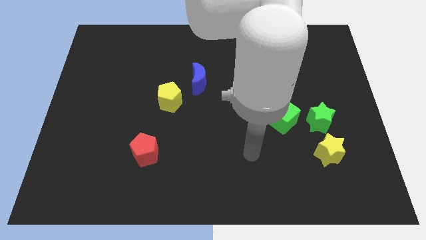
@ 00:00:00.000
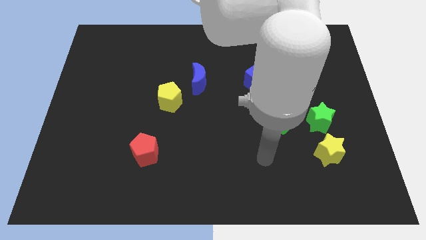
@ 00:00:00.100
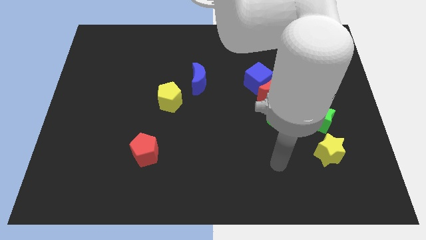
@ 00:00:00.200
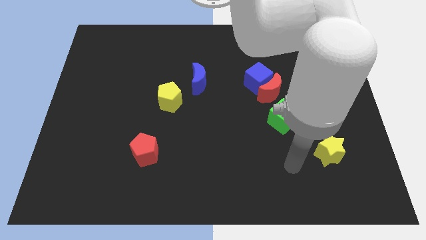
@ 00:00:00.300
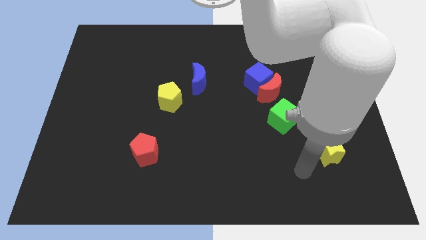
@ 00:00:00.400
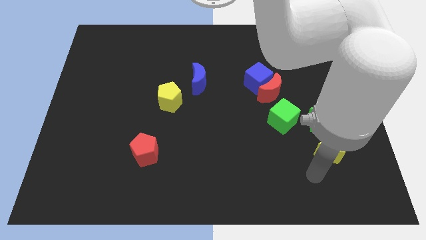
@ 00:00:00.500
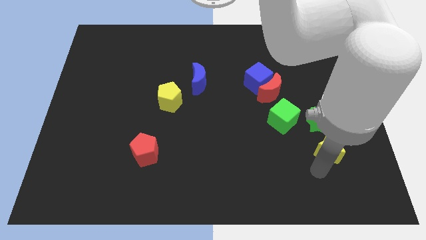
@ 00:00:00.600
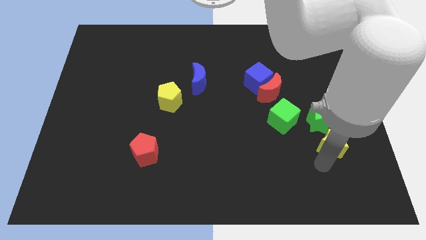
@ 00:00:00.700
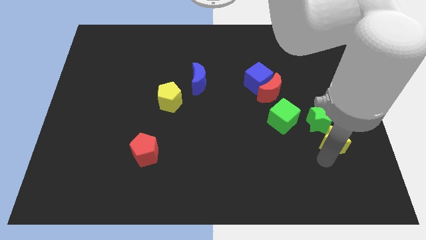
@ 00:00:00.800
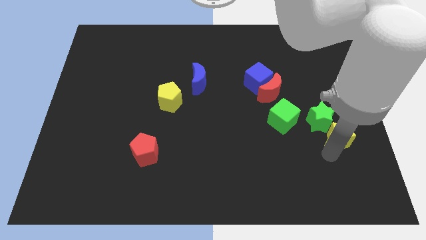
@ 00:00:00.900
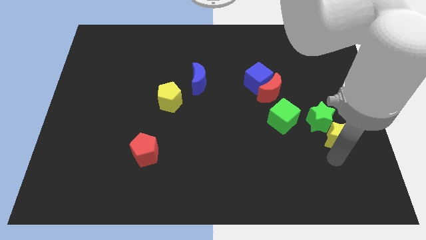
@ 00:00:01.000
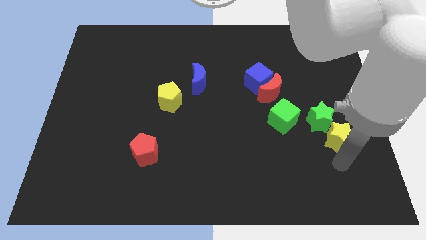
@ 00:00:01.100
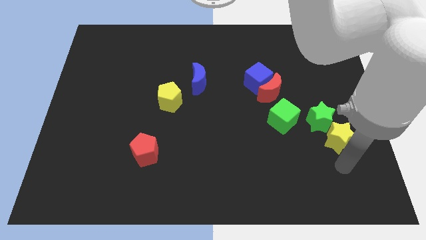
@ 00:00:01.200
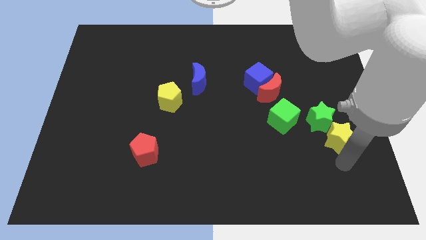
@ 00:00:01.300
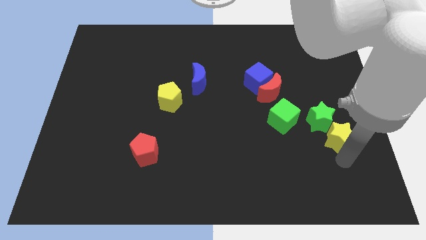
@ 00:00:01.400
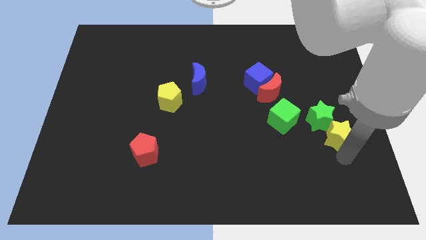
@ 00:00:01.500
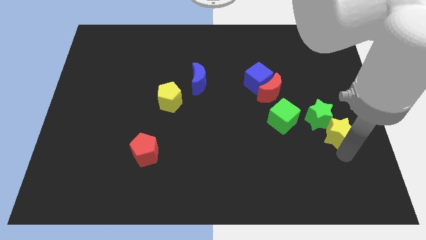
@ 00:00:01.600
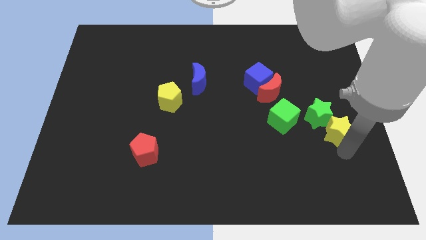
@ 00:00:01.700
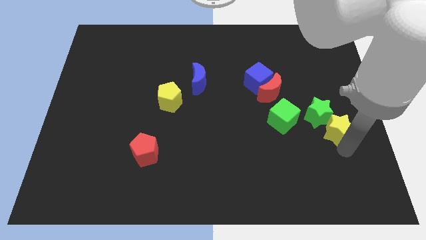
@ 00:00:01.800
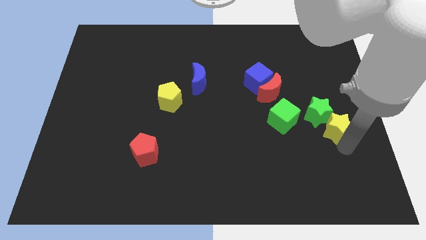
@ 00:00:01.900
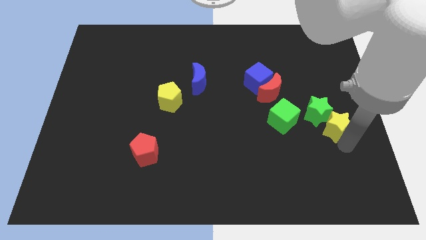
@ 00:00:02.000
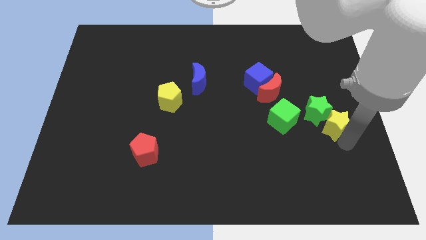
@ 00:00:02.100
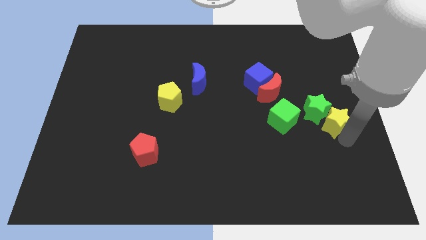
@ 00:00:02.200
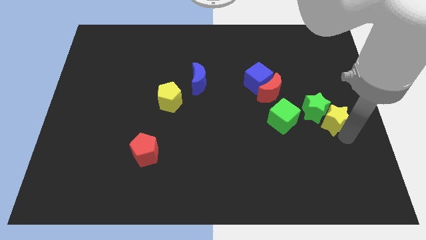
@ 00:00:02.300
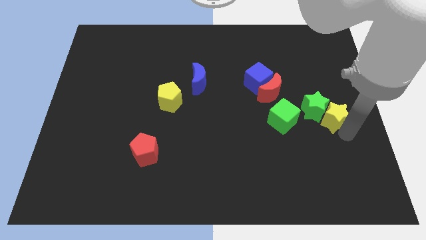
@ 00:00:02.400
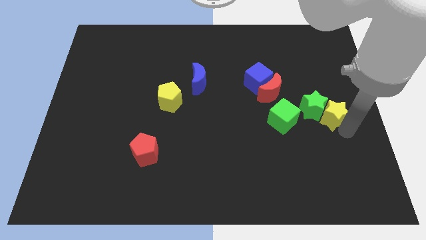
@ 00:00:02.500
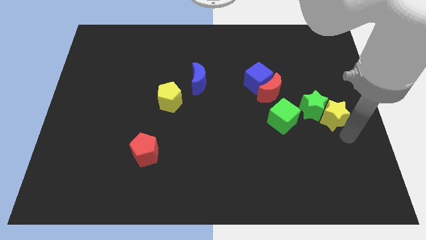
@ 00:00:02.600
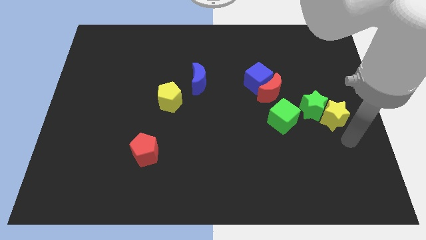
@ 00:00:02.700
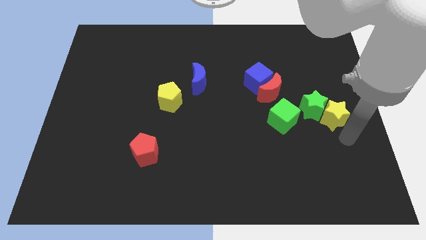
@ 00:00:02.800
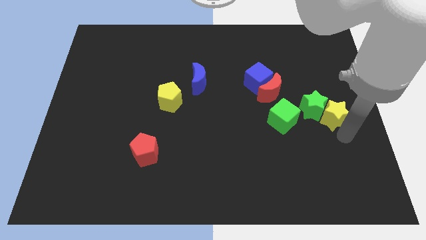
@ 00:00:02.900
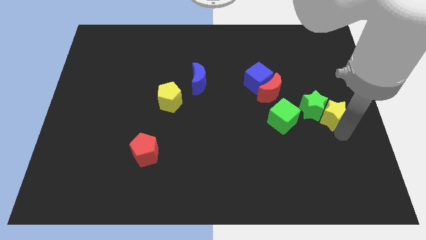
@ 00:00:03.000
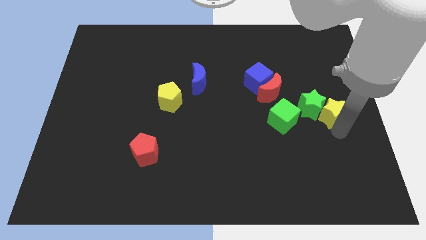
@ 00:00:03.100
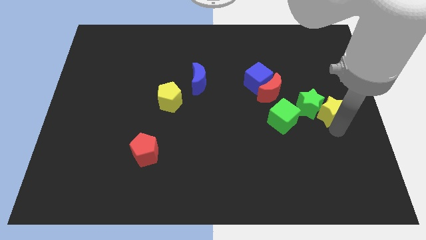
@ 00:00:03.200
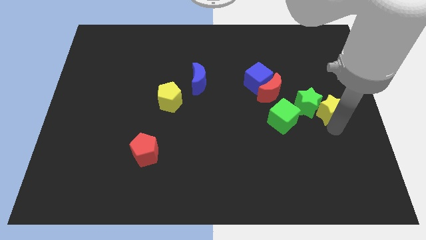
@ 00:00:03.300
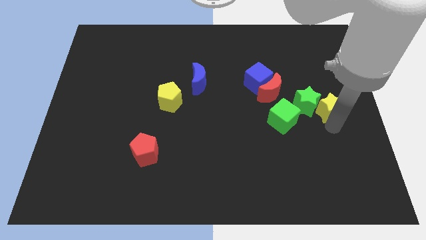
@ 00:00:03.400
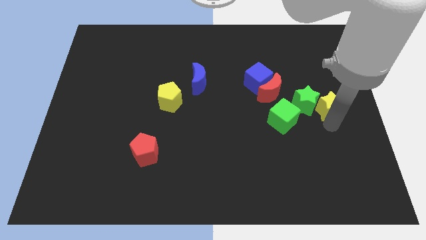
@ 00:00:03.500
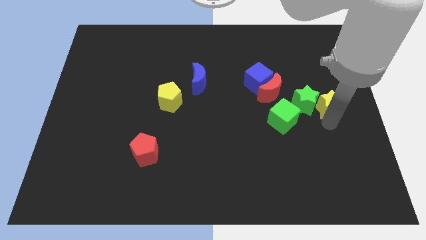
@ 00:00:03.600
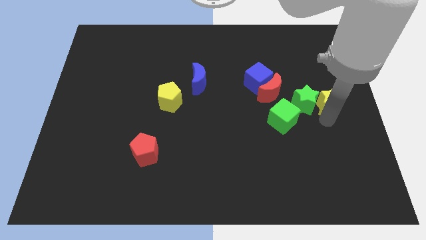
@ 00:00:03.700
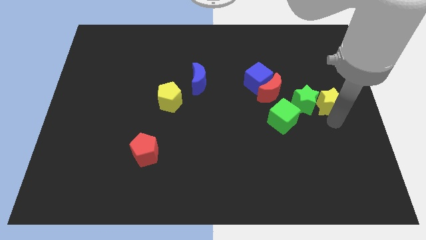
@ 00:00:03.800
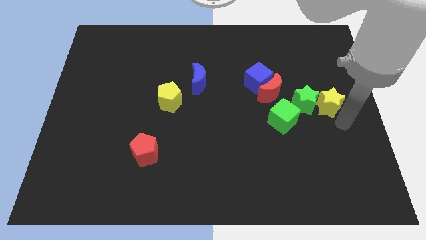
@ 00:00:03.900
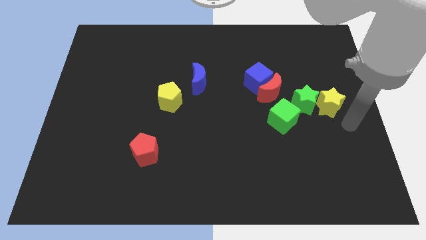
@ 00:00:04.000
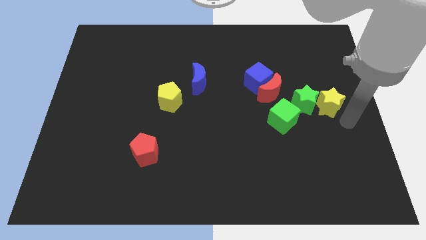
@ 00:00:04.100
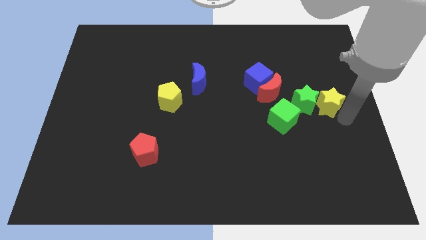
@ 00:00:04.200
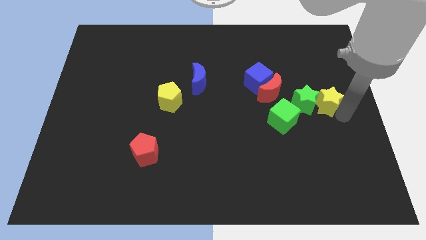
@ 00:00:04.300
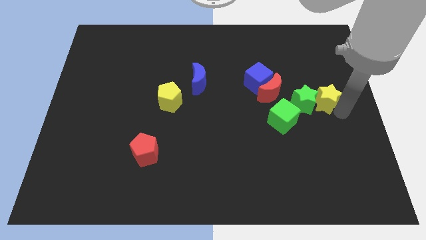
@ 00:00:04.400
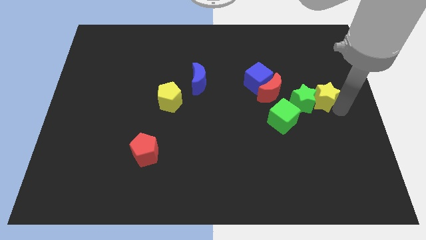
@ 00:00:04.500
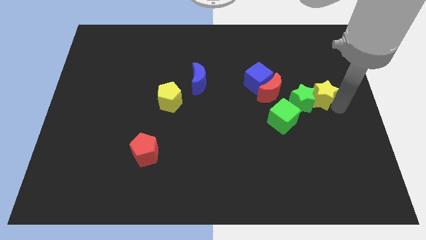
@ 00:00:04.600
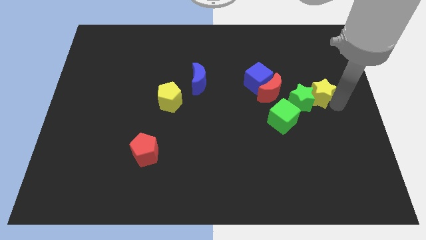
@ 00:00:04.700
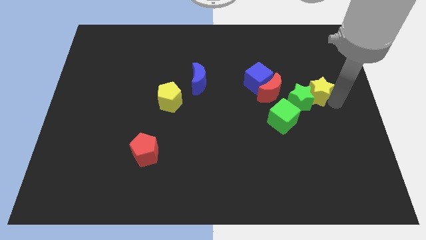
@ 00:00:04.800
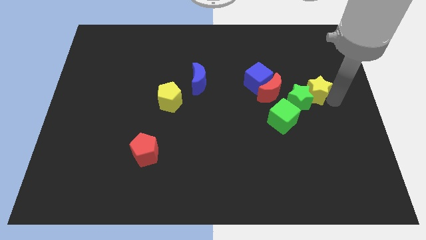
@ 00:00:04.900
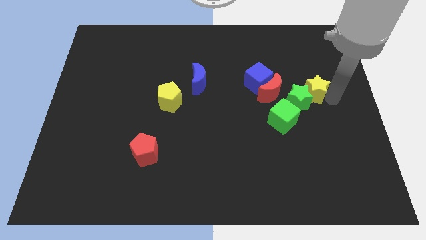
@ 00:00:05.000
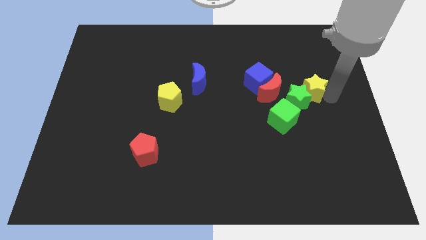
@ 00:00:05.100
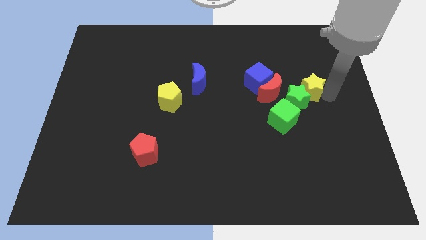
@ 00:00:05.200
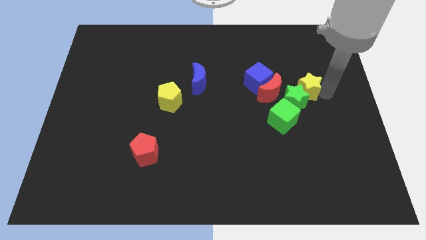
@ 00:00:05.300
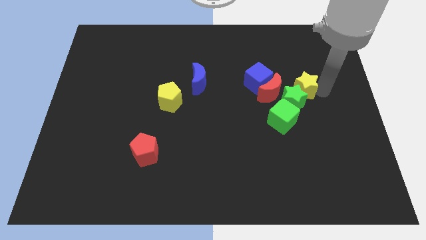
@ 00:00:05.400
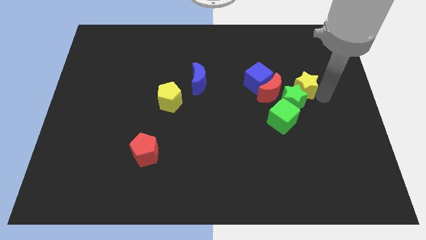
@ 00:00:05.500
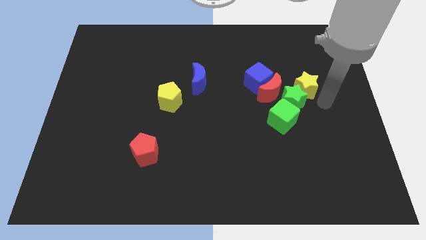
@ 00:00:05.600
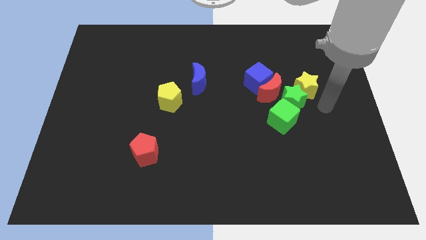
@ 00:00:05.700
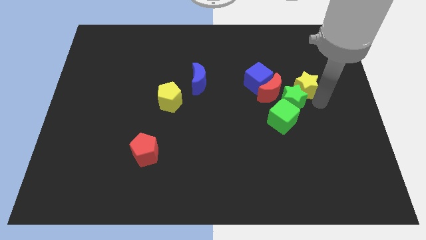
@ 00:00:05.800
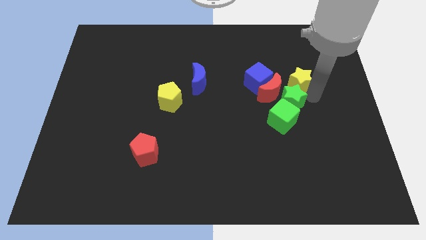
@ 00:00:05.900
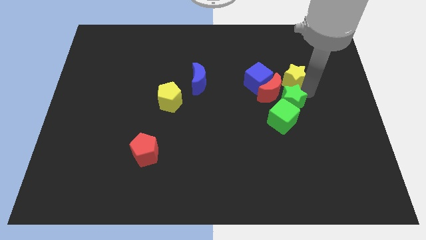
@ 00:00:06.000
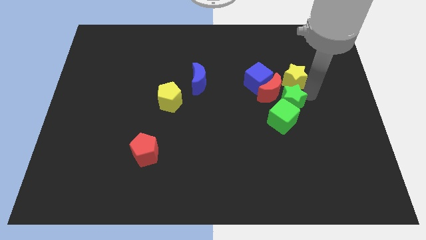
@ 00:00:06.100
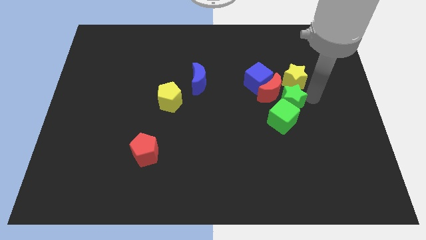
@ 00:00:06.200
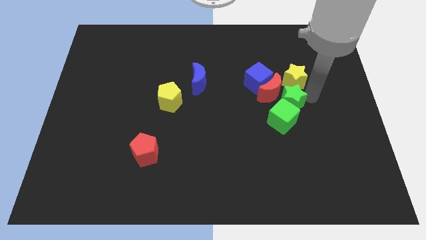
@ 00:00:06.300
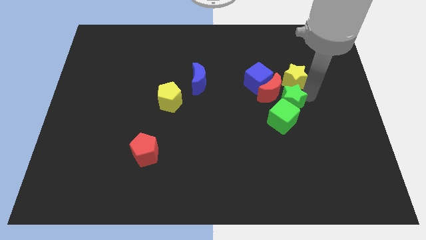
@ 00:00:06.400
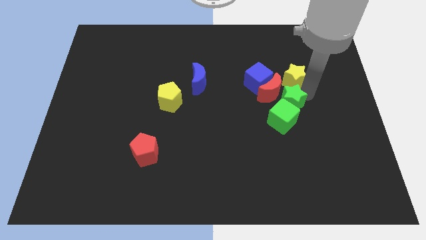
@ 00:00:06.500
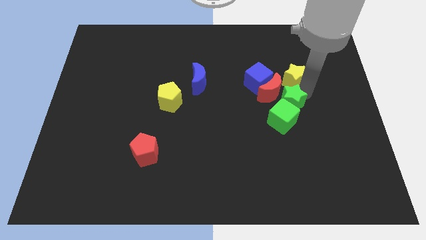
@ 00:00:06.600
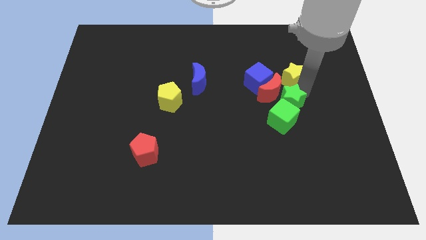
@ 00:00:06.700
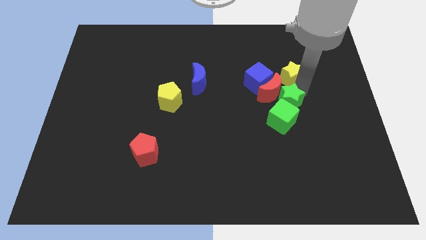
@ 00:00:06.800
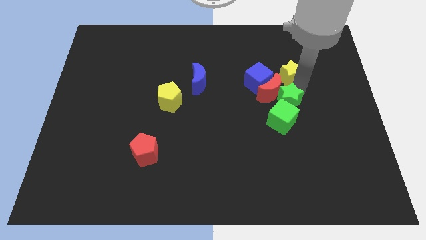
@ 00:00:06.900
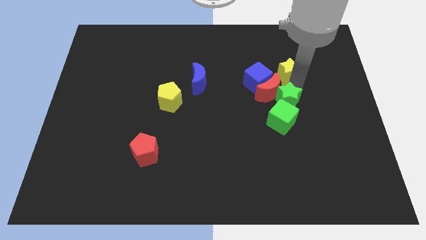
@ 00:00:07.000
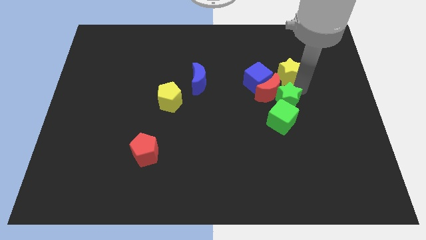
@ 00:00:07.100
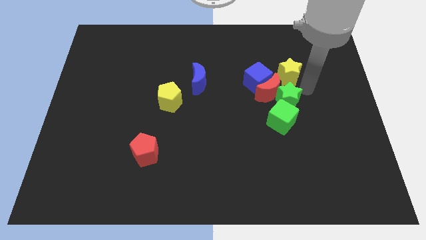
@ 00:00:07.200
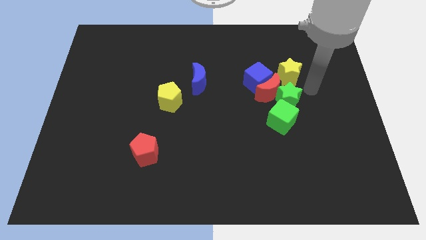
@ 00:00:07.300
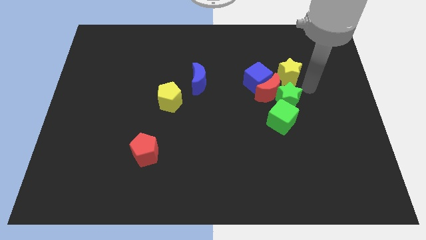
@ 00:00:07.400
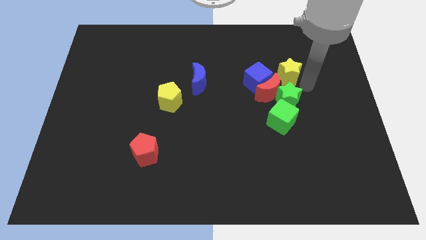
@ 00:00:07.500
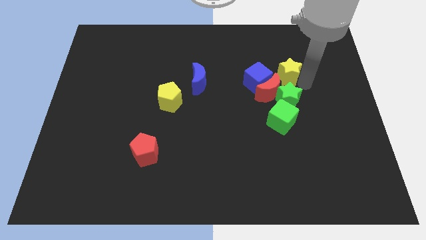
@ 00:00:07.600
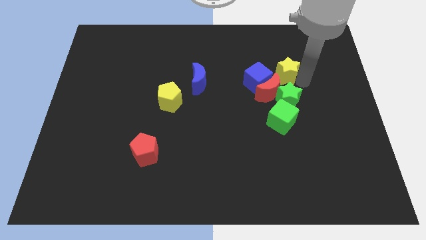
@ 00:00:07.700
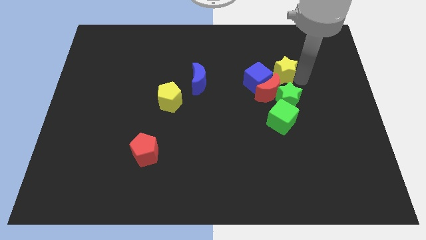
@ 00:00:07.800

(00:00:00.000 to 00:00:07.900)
slide the yellow star to the top side of the red moon
